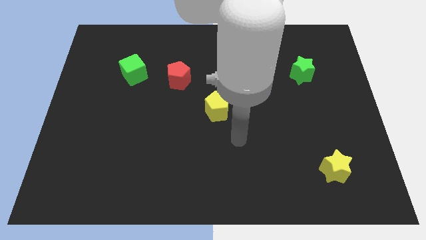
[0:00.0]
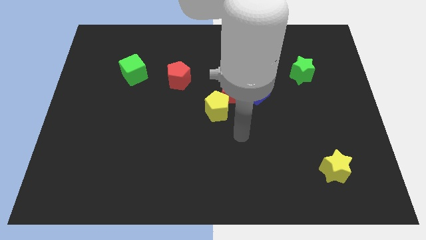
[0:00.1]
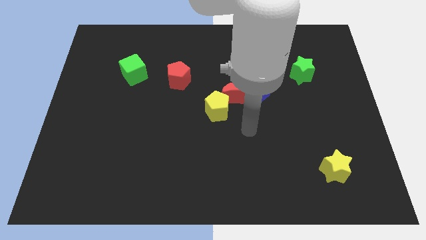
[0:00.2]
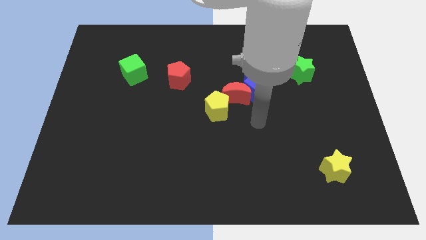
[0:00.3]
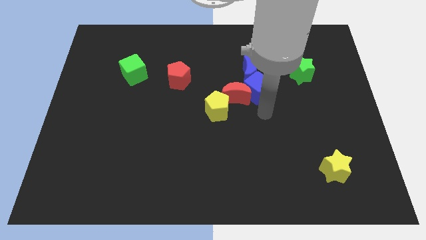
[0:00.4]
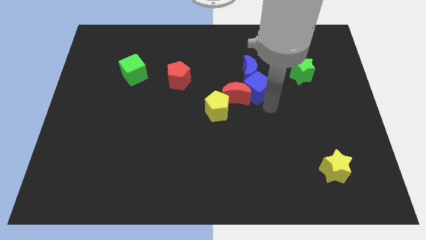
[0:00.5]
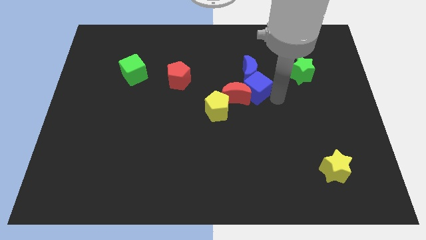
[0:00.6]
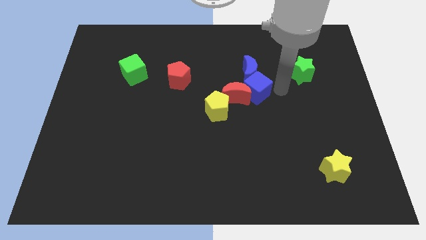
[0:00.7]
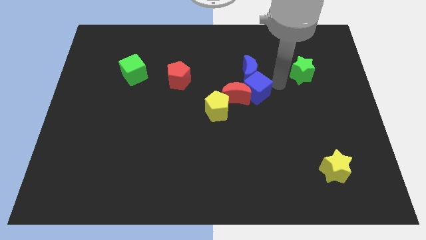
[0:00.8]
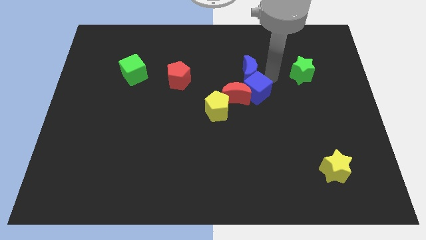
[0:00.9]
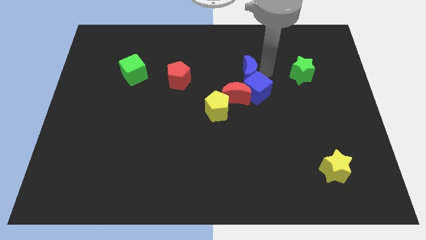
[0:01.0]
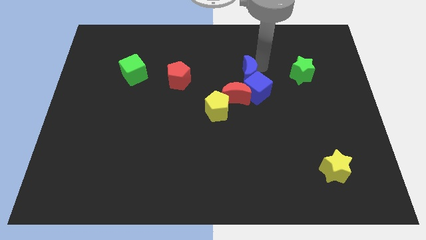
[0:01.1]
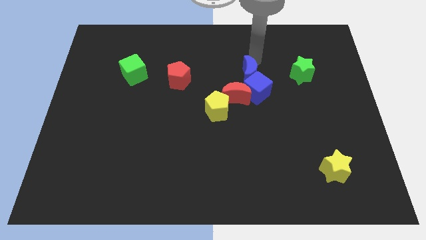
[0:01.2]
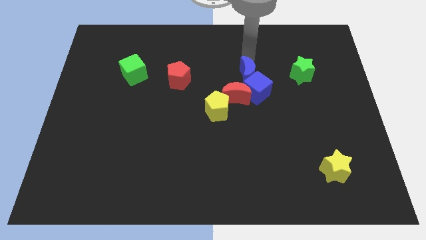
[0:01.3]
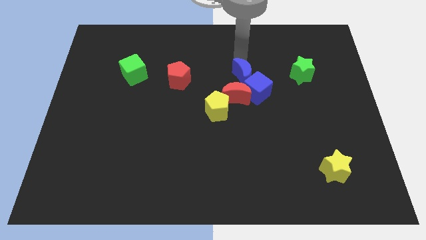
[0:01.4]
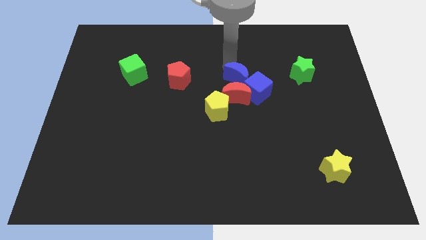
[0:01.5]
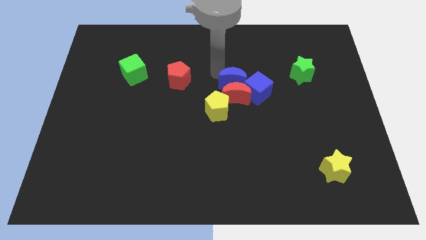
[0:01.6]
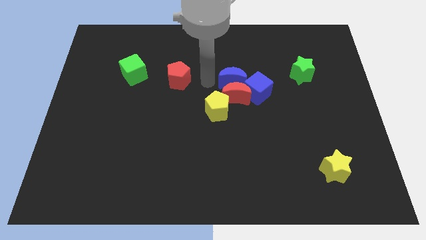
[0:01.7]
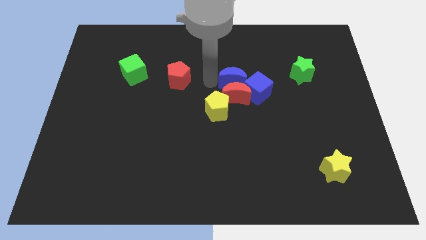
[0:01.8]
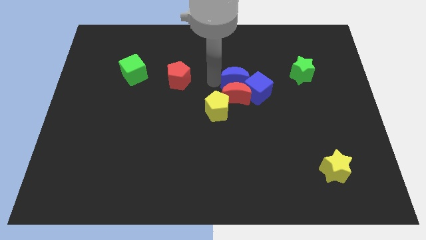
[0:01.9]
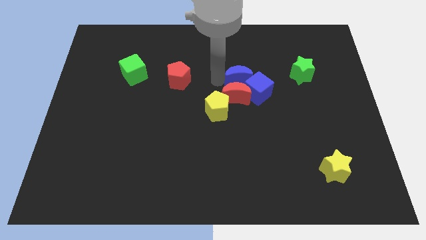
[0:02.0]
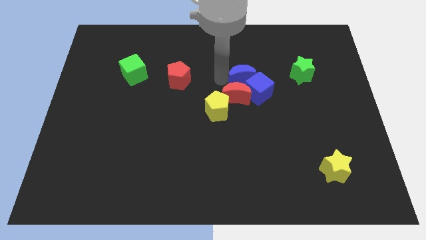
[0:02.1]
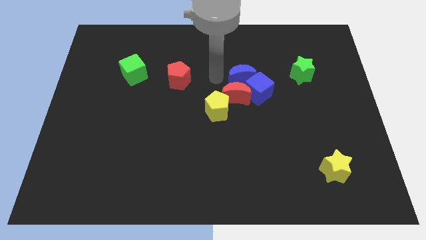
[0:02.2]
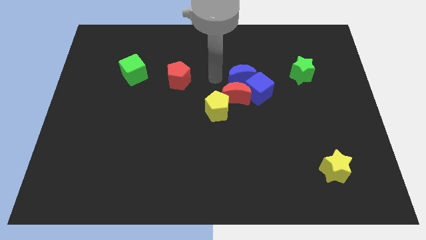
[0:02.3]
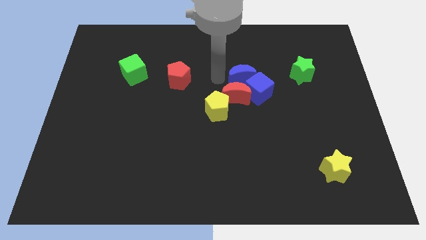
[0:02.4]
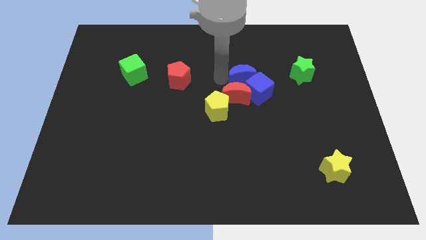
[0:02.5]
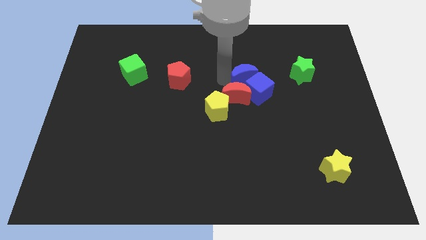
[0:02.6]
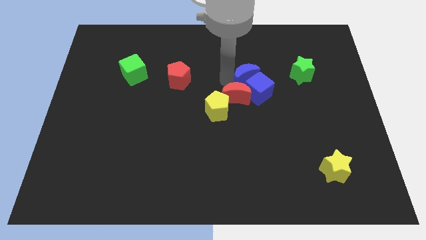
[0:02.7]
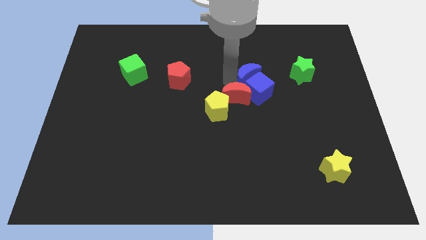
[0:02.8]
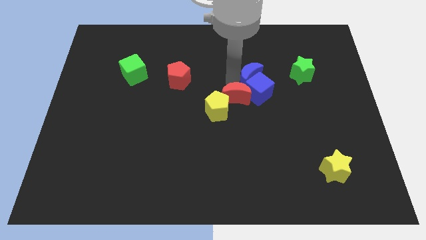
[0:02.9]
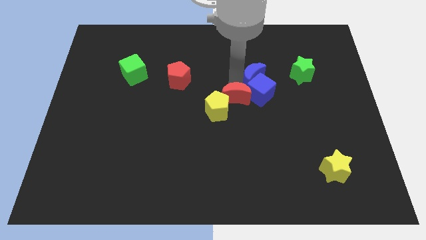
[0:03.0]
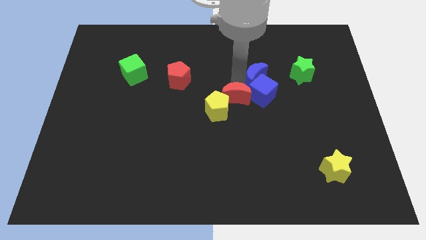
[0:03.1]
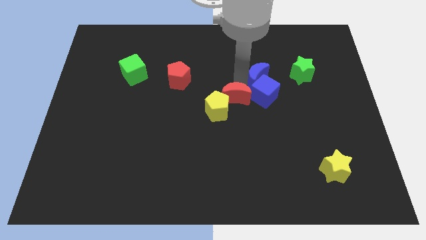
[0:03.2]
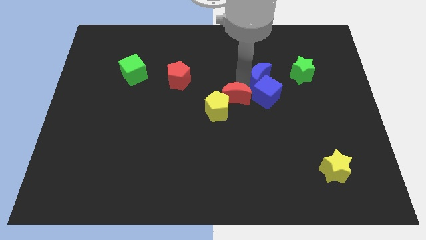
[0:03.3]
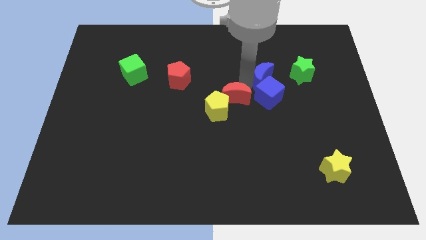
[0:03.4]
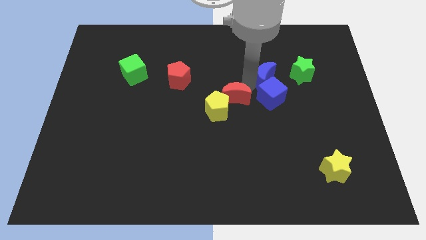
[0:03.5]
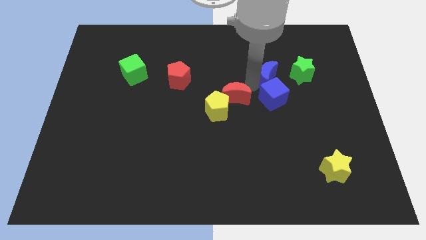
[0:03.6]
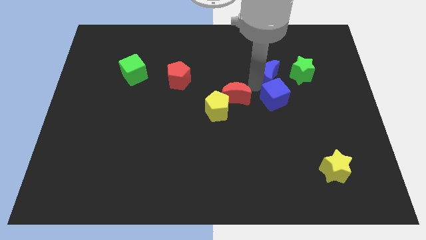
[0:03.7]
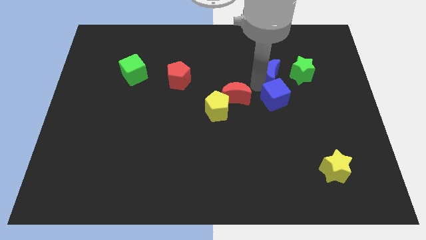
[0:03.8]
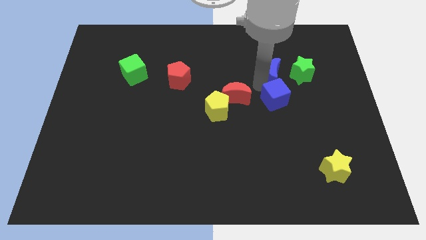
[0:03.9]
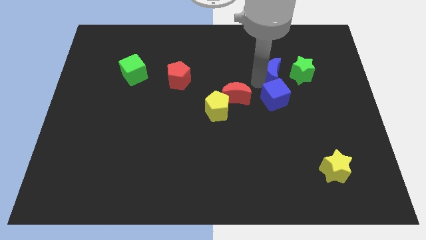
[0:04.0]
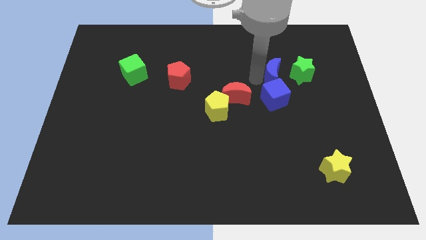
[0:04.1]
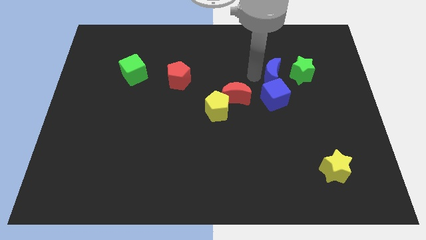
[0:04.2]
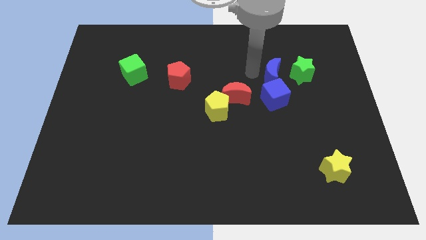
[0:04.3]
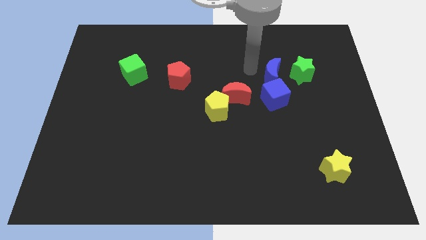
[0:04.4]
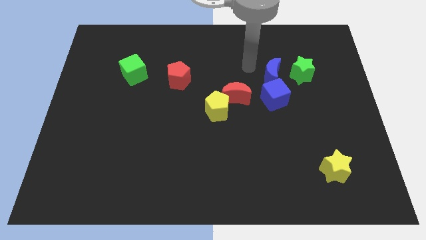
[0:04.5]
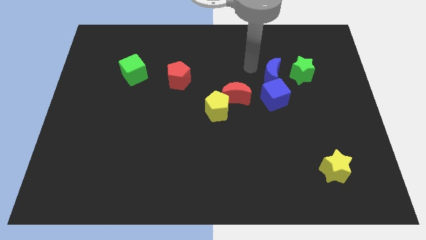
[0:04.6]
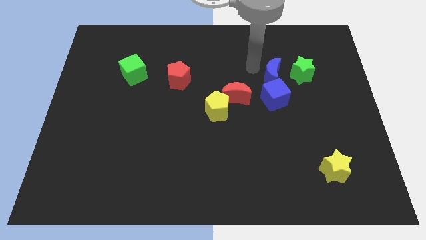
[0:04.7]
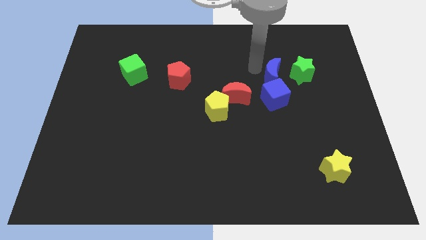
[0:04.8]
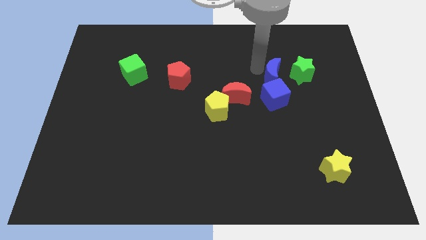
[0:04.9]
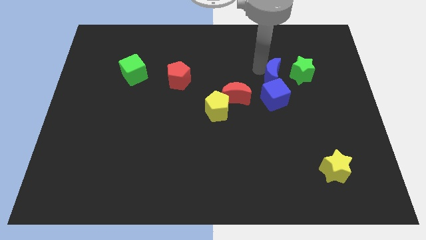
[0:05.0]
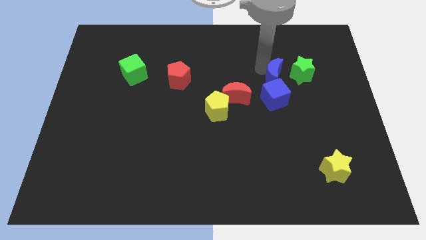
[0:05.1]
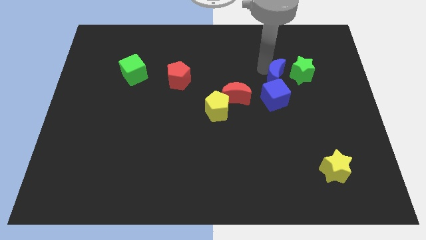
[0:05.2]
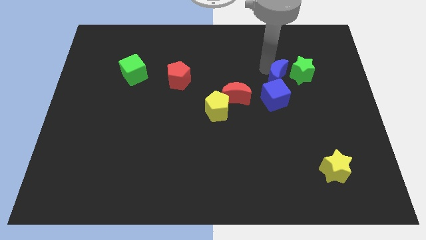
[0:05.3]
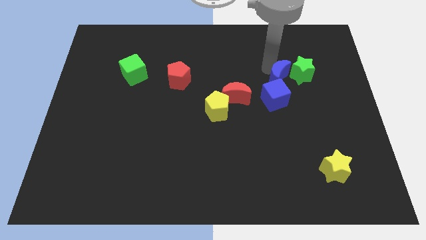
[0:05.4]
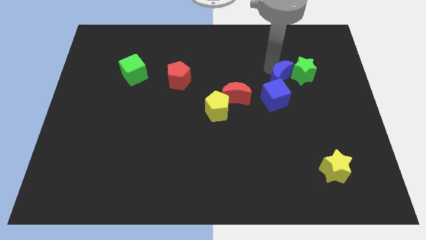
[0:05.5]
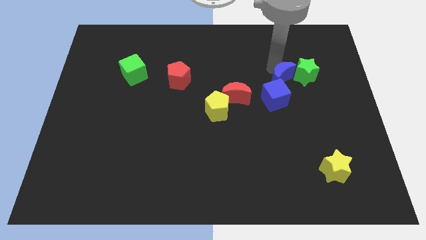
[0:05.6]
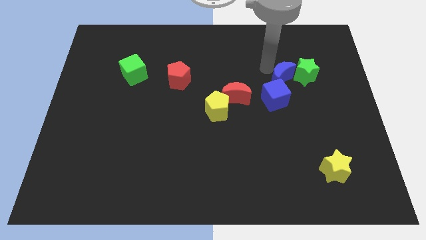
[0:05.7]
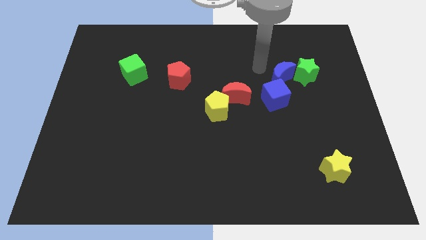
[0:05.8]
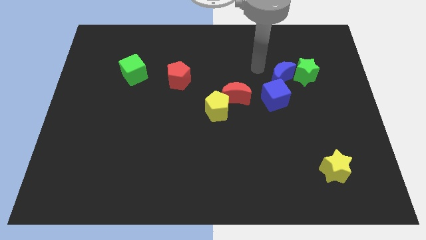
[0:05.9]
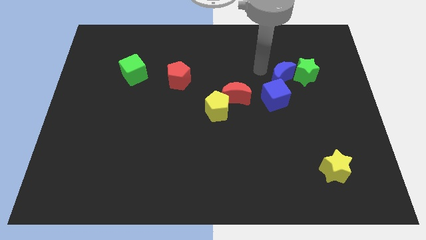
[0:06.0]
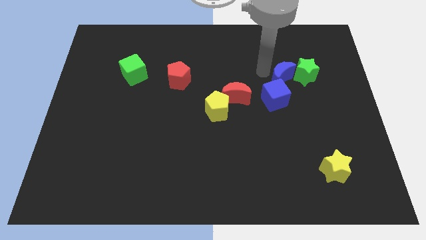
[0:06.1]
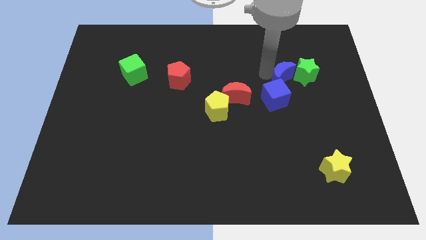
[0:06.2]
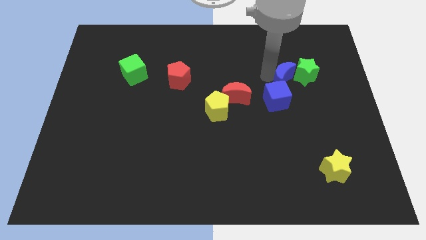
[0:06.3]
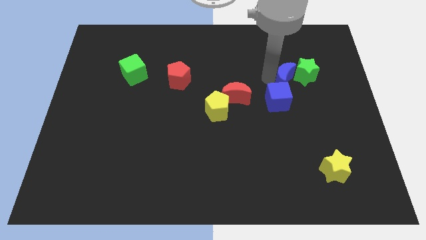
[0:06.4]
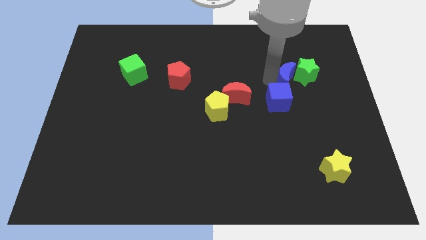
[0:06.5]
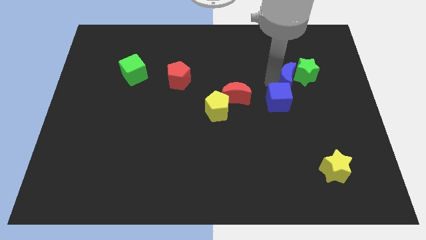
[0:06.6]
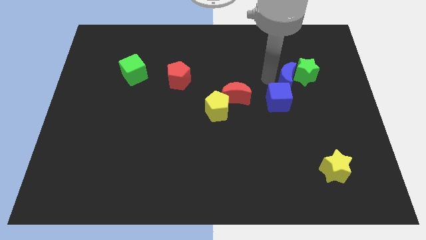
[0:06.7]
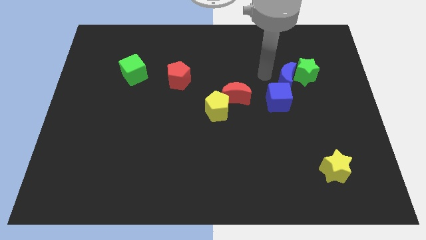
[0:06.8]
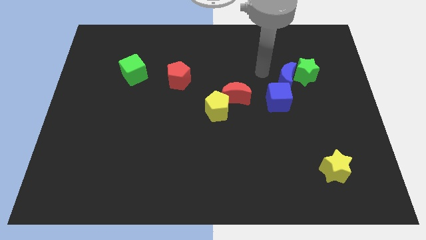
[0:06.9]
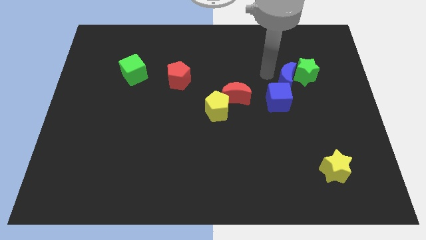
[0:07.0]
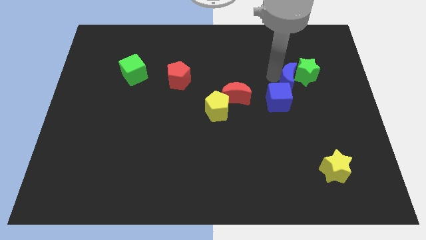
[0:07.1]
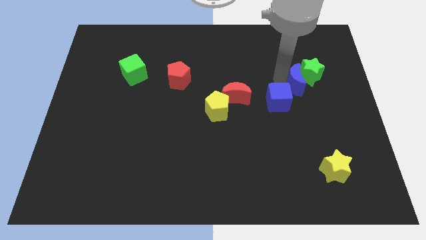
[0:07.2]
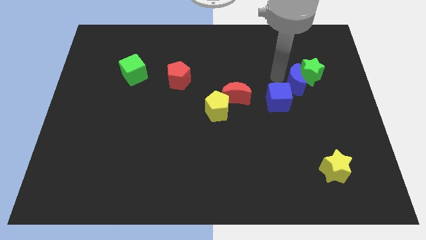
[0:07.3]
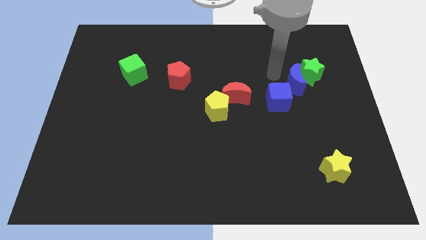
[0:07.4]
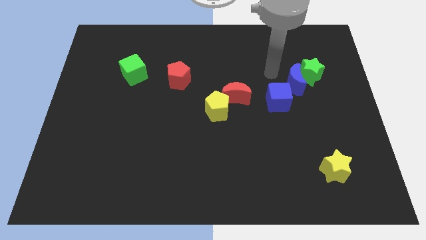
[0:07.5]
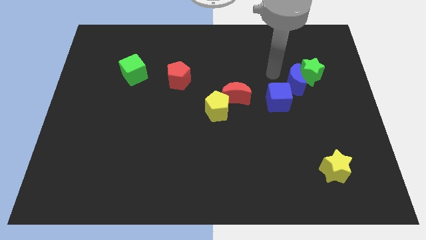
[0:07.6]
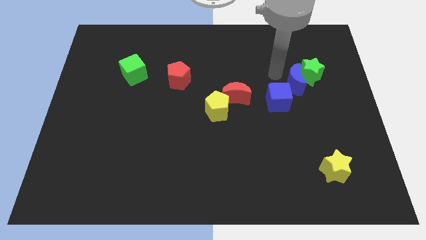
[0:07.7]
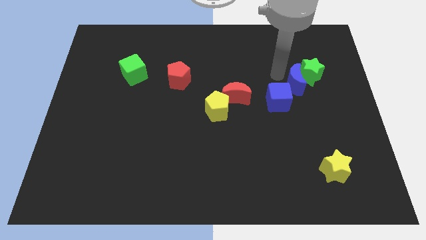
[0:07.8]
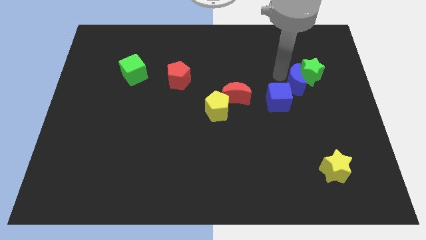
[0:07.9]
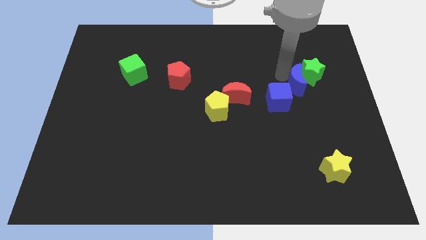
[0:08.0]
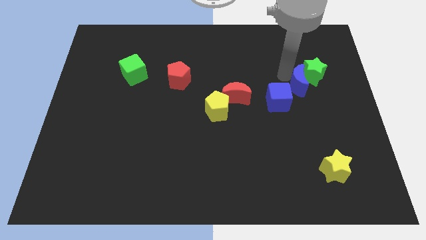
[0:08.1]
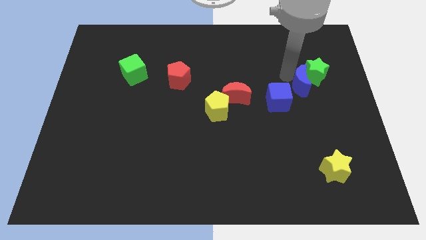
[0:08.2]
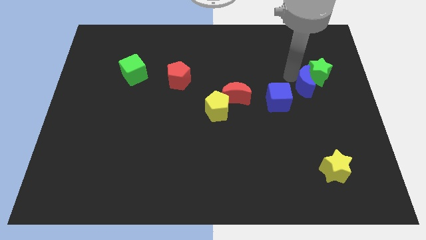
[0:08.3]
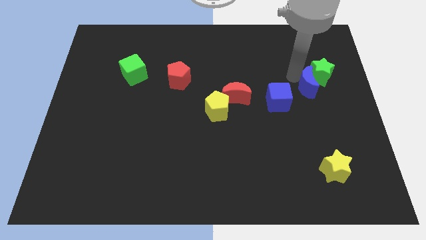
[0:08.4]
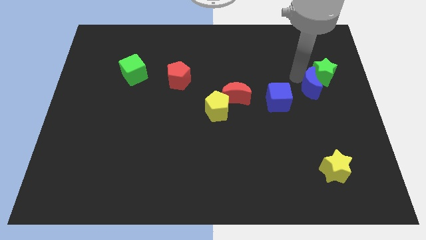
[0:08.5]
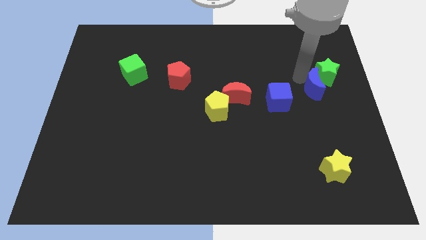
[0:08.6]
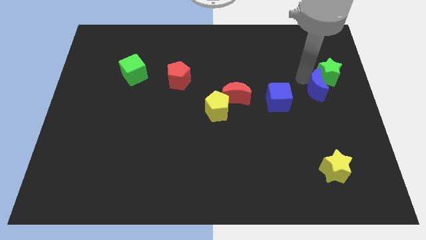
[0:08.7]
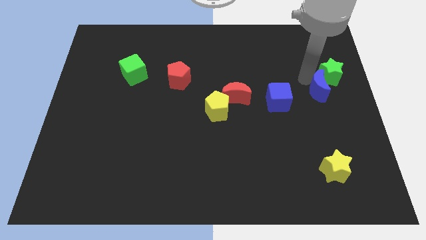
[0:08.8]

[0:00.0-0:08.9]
push the blue moon to the right side
